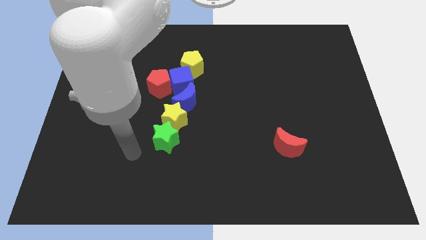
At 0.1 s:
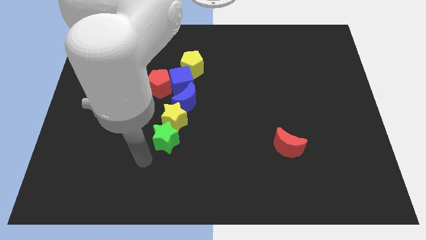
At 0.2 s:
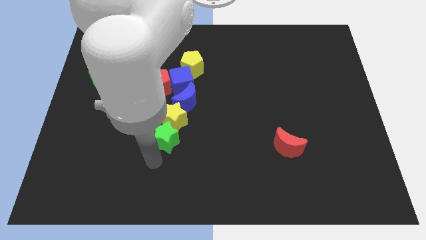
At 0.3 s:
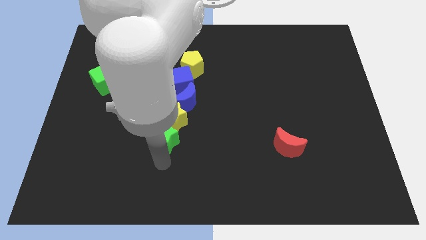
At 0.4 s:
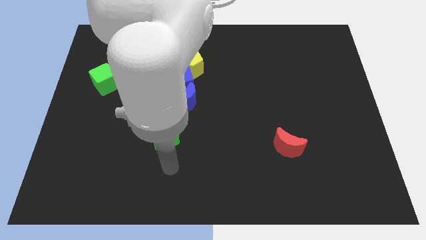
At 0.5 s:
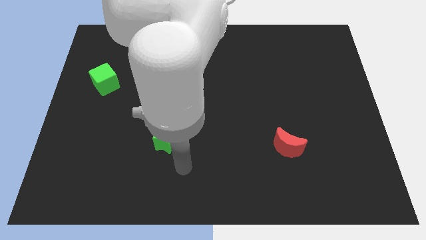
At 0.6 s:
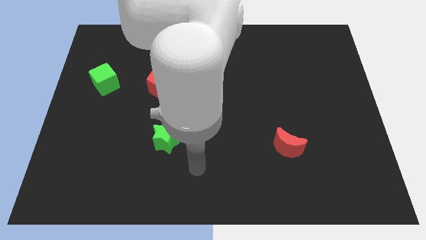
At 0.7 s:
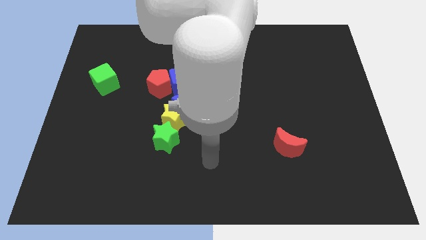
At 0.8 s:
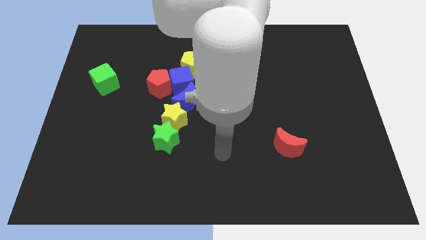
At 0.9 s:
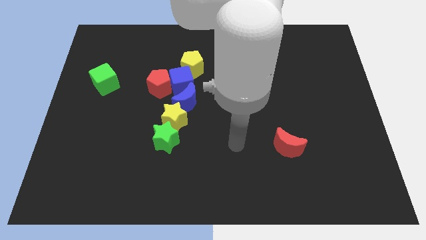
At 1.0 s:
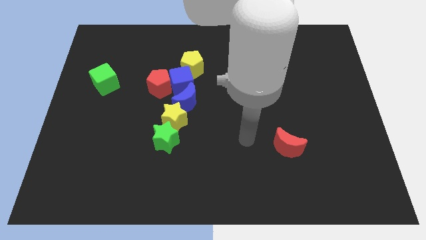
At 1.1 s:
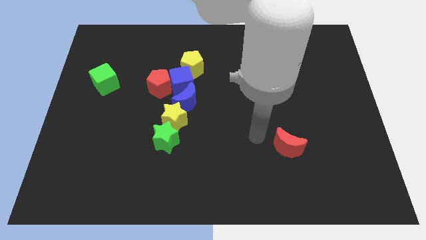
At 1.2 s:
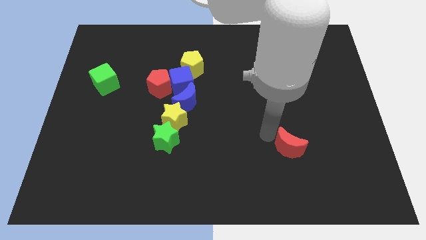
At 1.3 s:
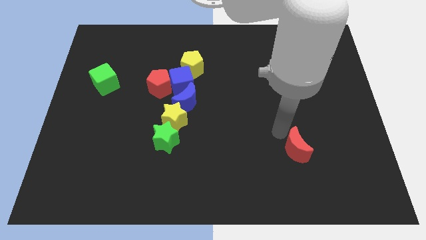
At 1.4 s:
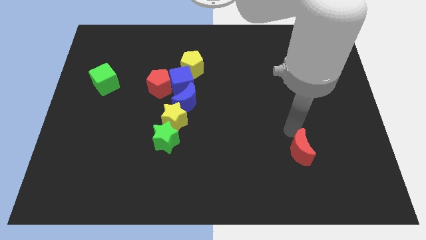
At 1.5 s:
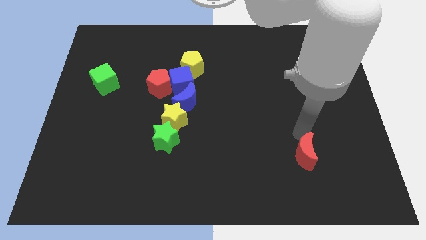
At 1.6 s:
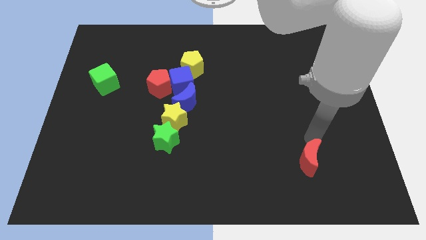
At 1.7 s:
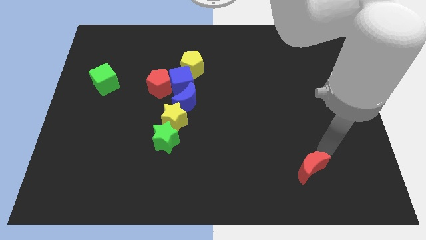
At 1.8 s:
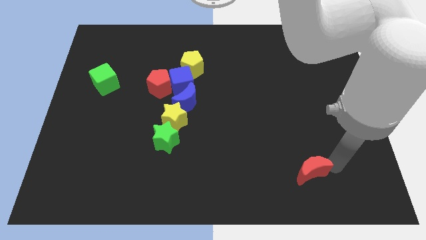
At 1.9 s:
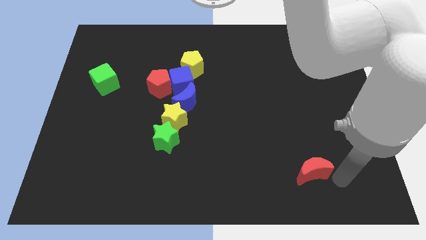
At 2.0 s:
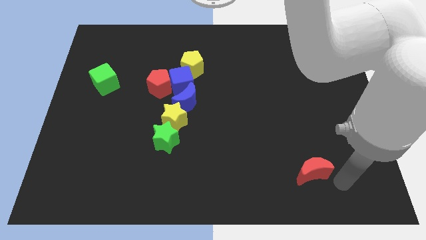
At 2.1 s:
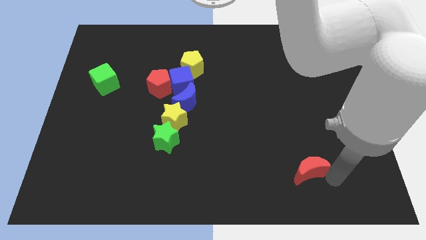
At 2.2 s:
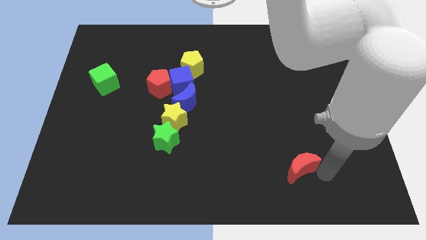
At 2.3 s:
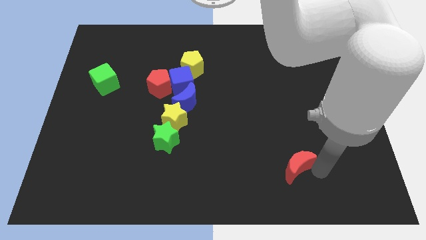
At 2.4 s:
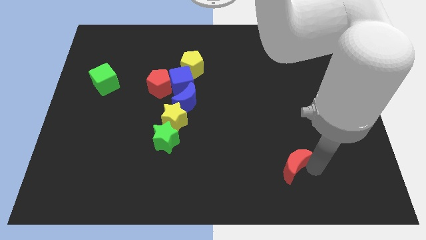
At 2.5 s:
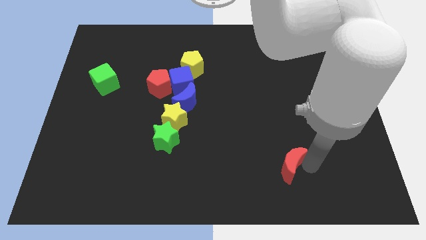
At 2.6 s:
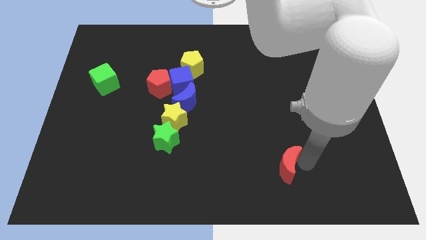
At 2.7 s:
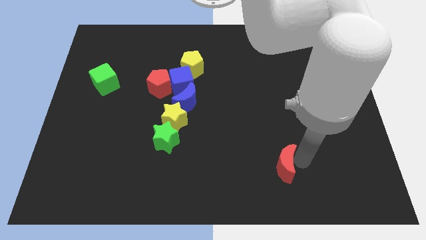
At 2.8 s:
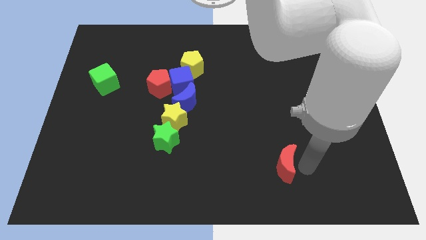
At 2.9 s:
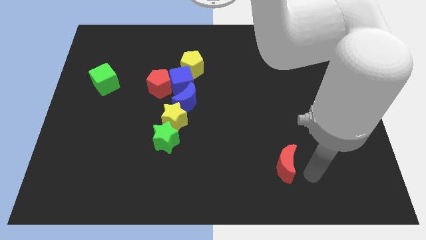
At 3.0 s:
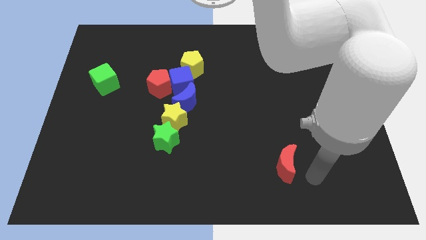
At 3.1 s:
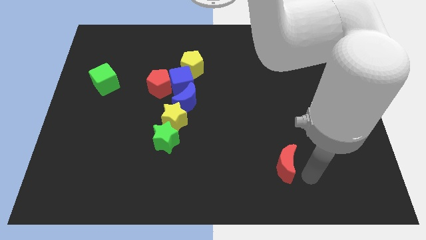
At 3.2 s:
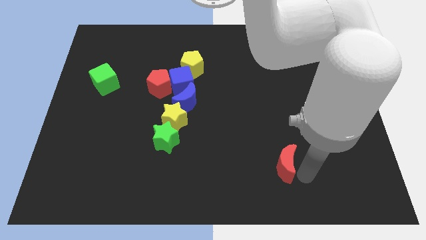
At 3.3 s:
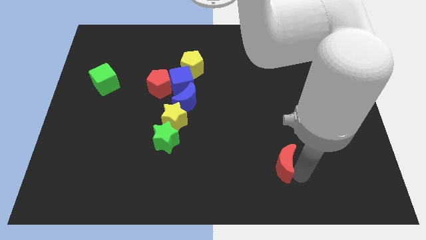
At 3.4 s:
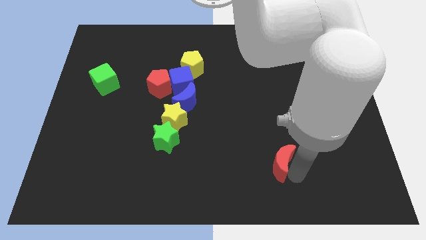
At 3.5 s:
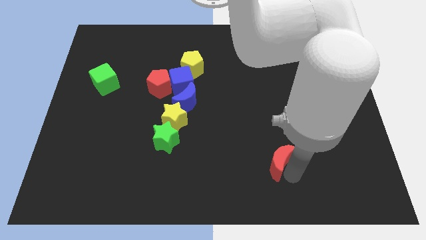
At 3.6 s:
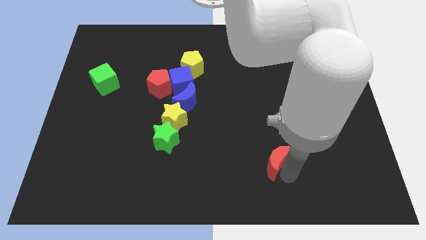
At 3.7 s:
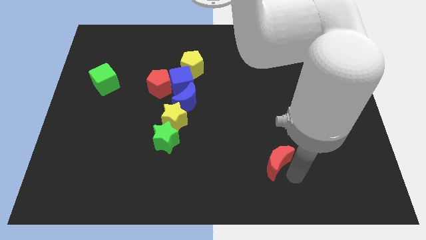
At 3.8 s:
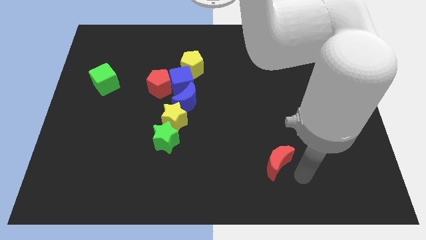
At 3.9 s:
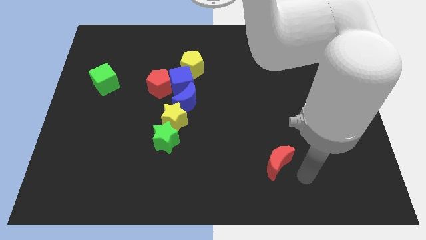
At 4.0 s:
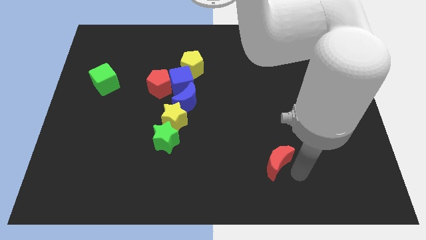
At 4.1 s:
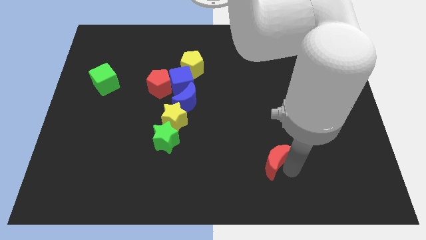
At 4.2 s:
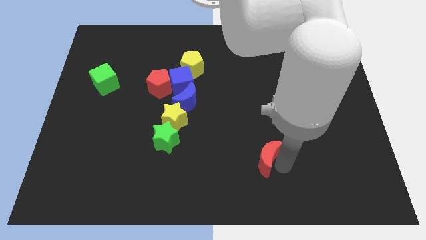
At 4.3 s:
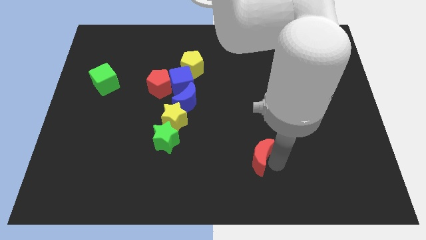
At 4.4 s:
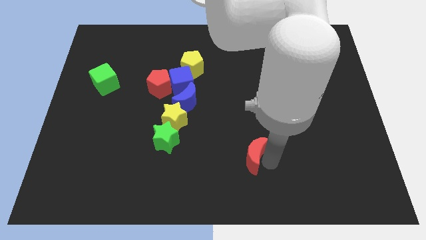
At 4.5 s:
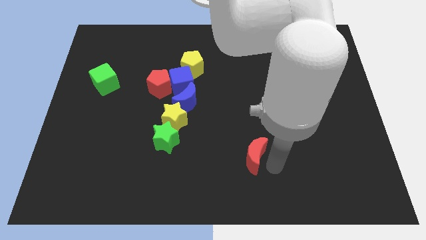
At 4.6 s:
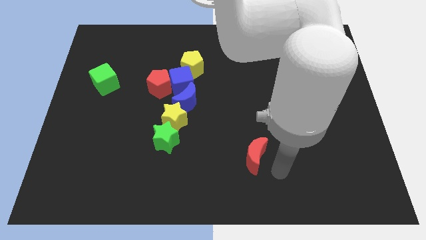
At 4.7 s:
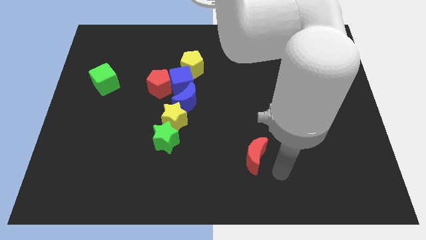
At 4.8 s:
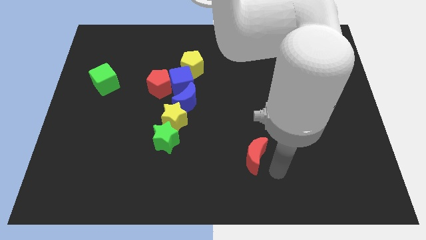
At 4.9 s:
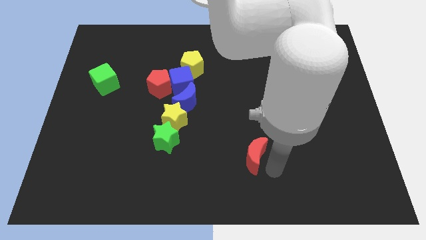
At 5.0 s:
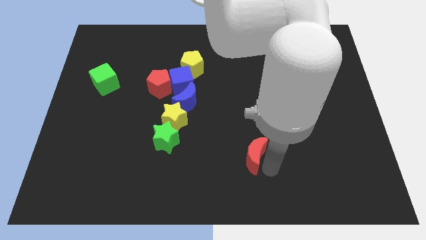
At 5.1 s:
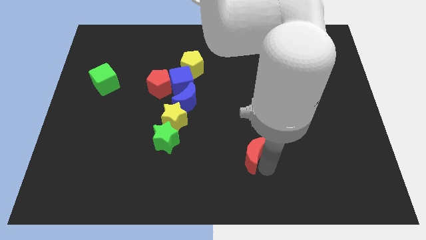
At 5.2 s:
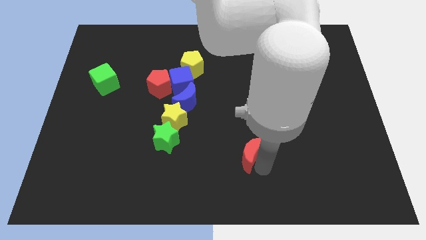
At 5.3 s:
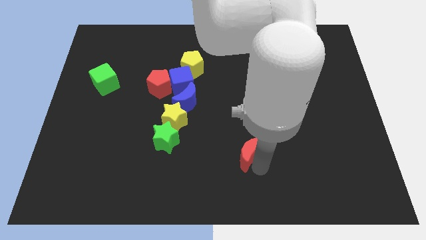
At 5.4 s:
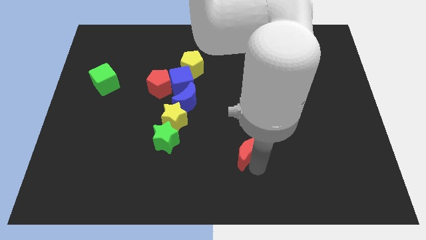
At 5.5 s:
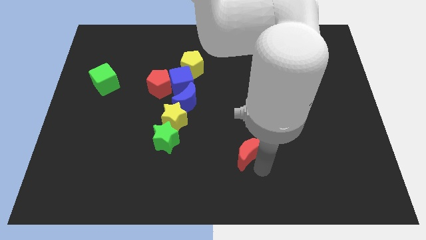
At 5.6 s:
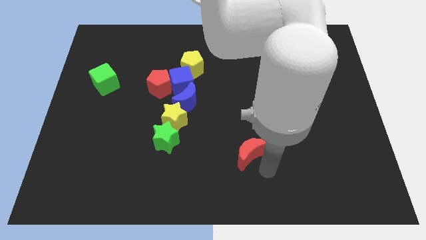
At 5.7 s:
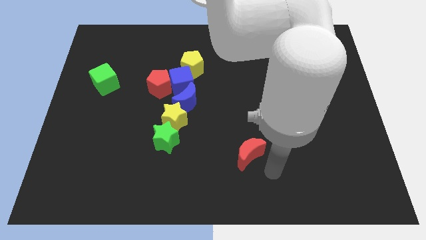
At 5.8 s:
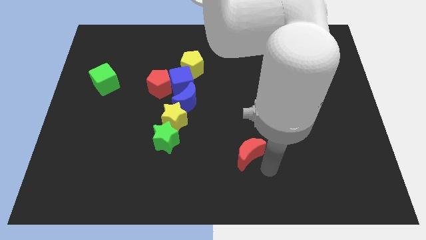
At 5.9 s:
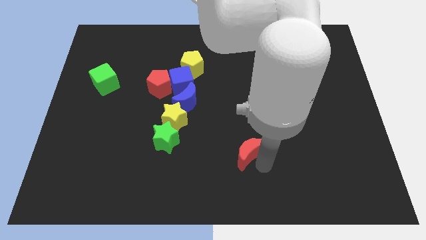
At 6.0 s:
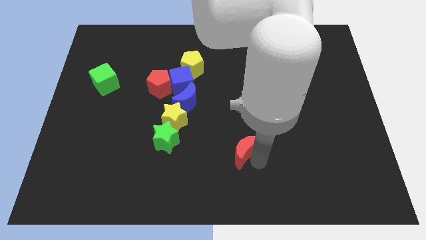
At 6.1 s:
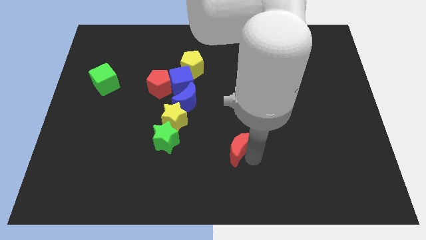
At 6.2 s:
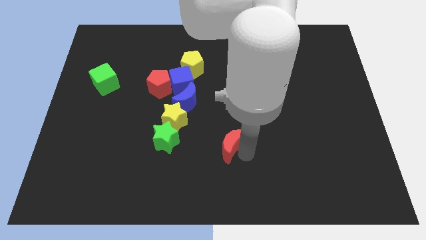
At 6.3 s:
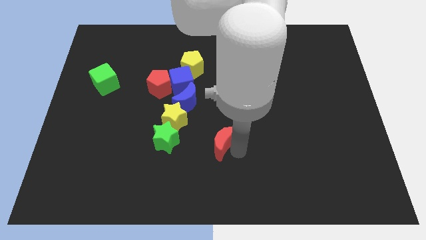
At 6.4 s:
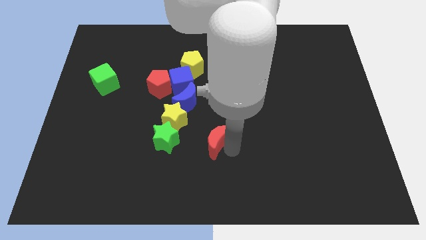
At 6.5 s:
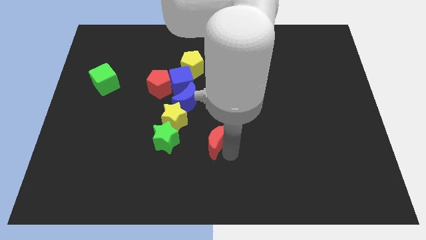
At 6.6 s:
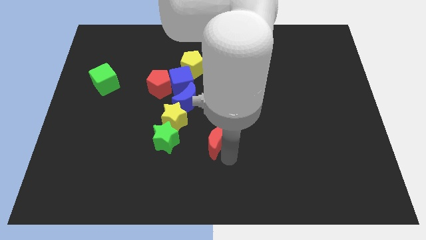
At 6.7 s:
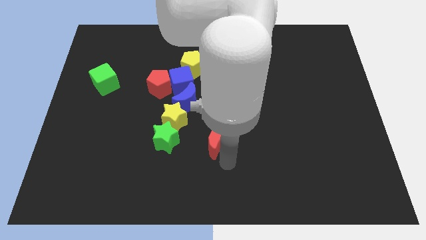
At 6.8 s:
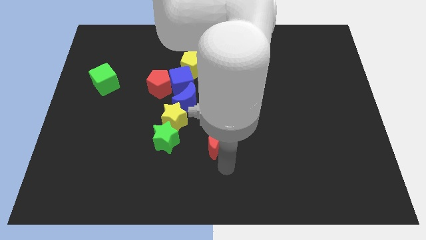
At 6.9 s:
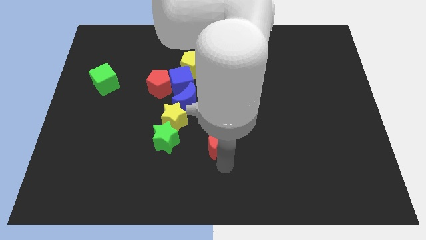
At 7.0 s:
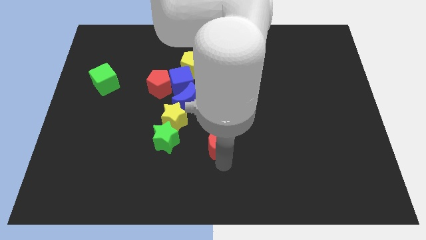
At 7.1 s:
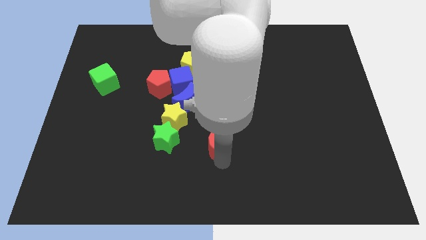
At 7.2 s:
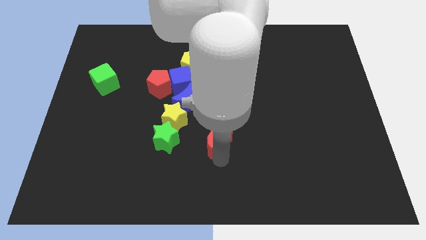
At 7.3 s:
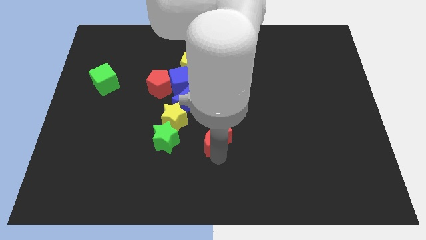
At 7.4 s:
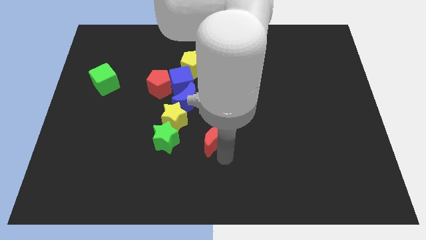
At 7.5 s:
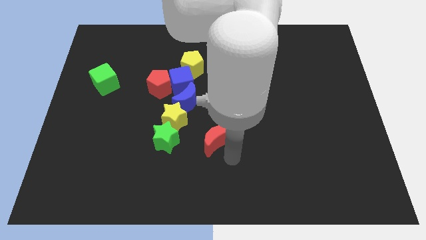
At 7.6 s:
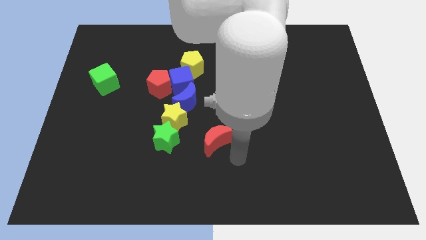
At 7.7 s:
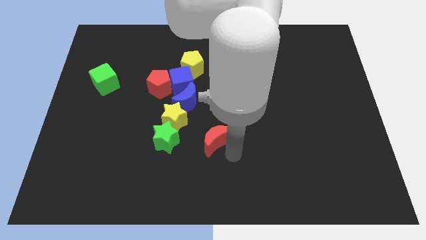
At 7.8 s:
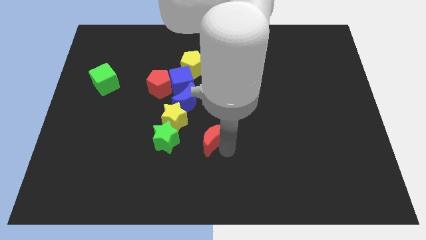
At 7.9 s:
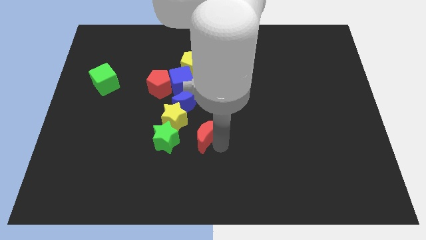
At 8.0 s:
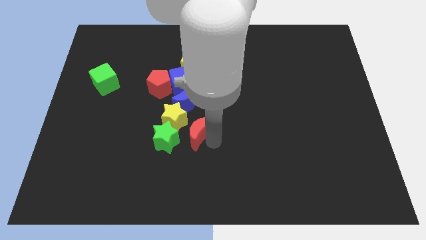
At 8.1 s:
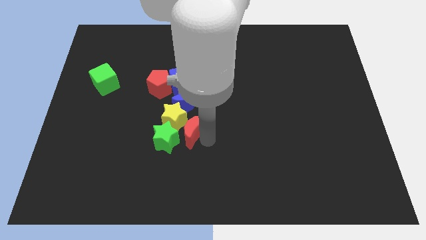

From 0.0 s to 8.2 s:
put the red moon to the yellow star
